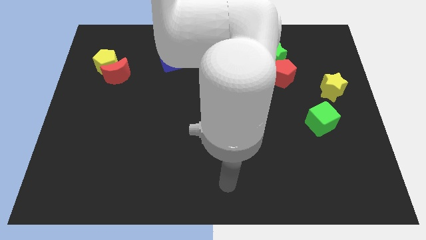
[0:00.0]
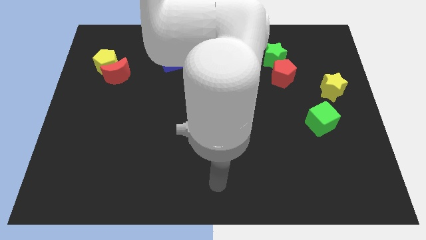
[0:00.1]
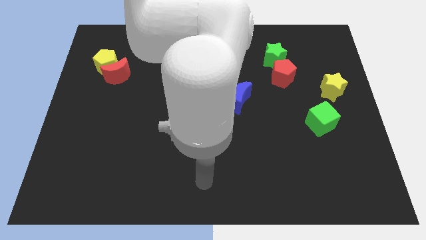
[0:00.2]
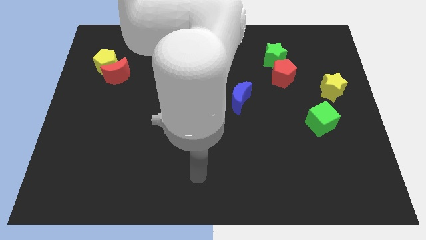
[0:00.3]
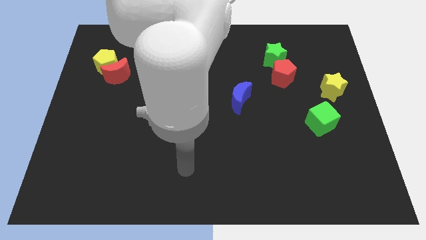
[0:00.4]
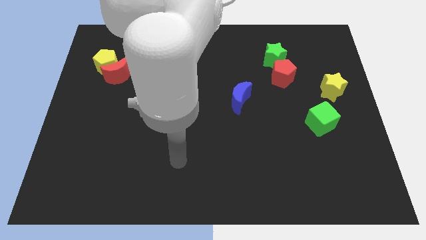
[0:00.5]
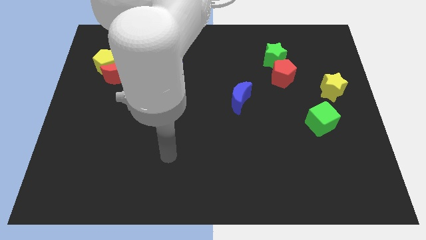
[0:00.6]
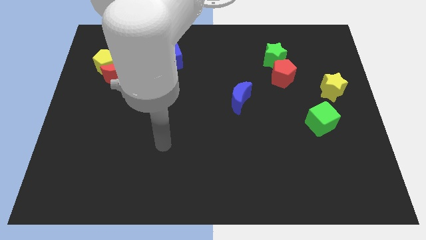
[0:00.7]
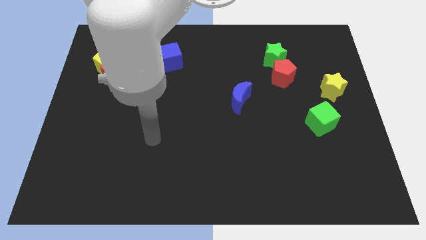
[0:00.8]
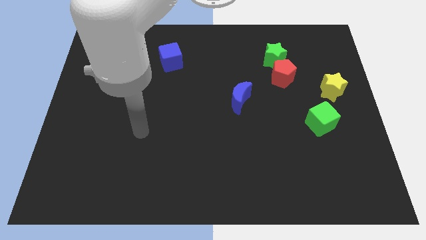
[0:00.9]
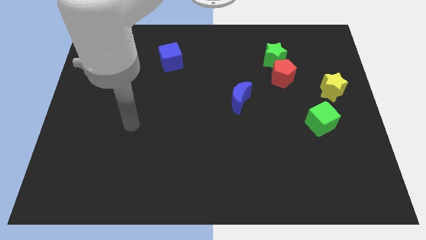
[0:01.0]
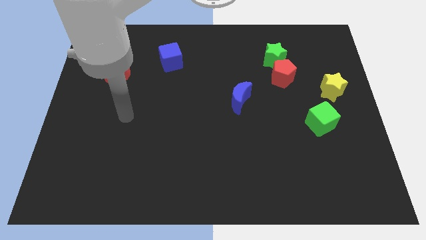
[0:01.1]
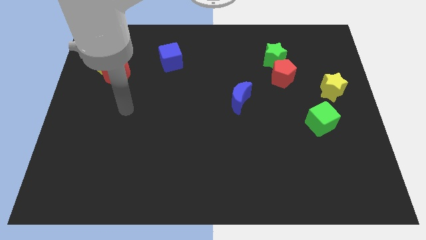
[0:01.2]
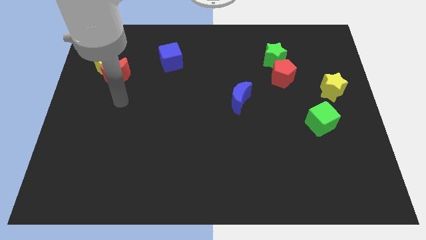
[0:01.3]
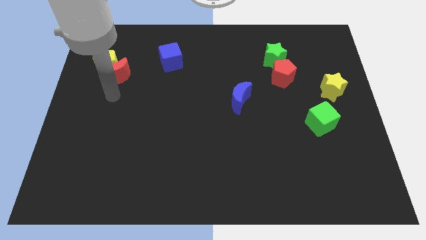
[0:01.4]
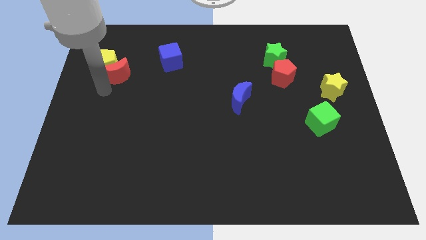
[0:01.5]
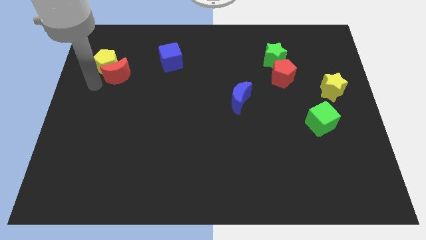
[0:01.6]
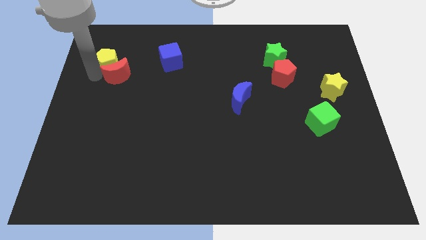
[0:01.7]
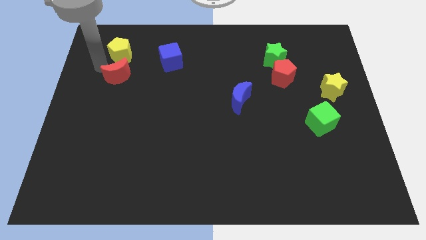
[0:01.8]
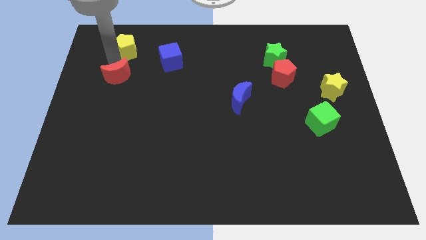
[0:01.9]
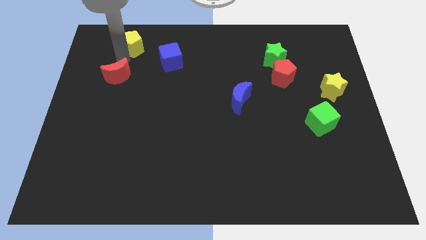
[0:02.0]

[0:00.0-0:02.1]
separate the red moon from the yellow pentagon

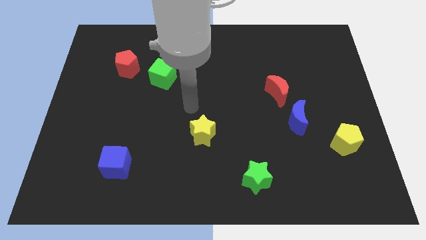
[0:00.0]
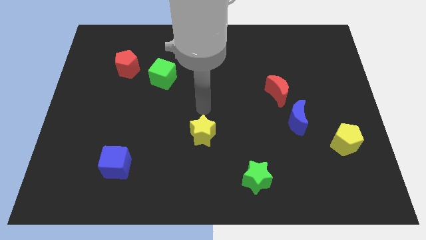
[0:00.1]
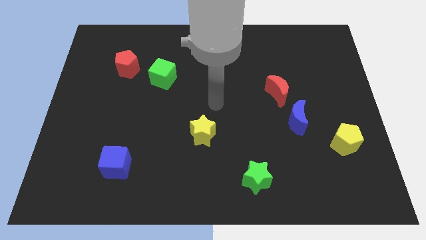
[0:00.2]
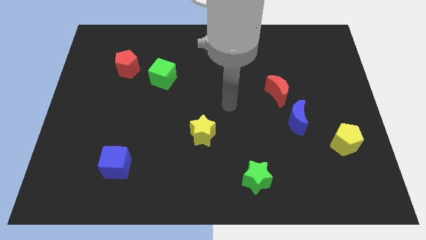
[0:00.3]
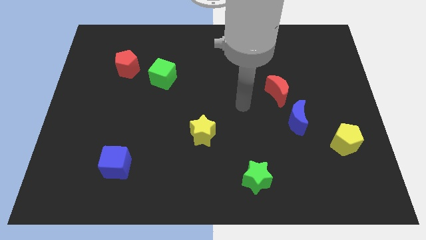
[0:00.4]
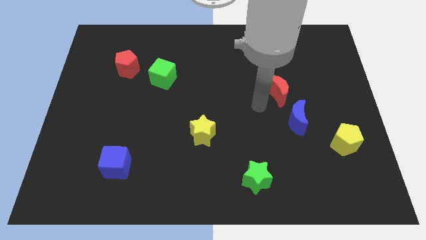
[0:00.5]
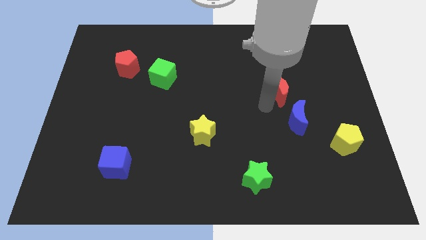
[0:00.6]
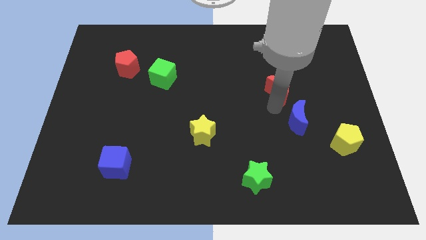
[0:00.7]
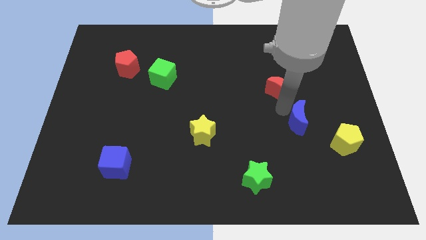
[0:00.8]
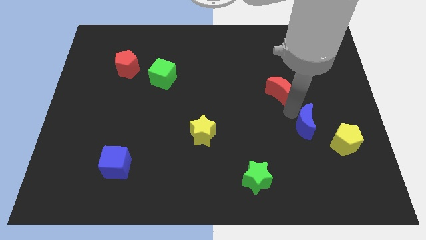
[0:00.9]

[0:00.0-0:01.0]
separate the red moon from the blue moon

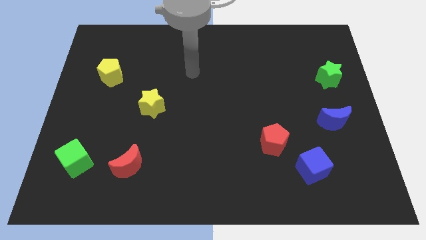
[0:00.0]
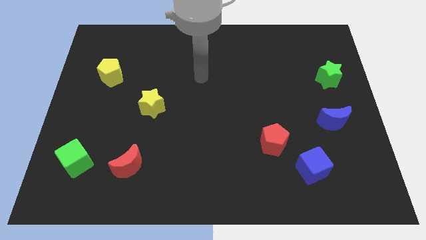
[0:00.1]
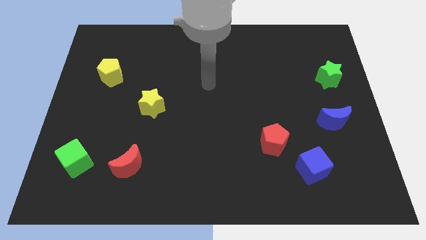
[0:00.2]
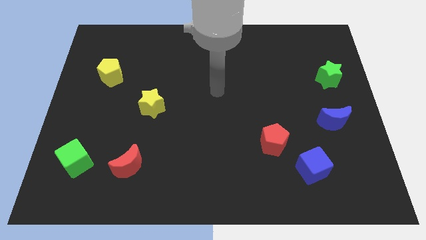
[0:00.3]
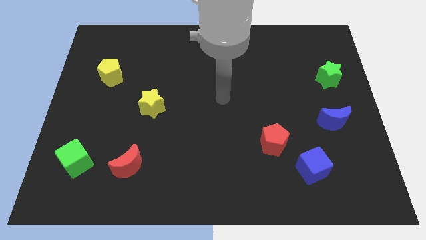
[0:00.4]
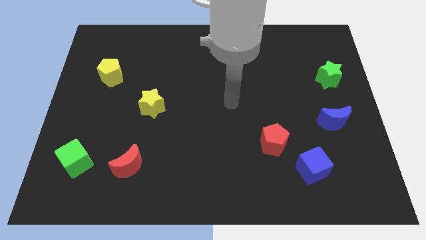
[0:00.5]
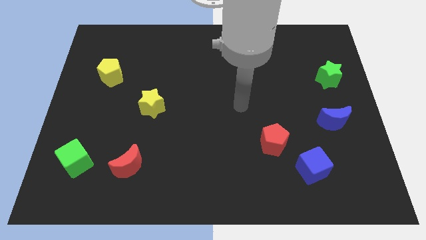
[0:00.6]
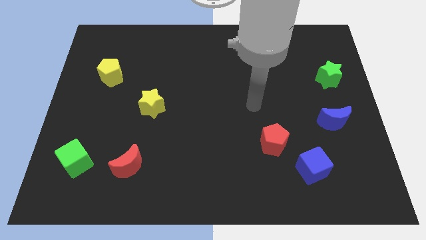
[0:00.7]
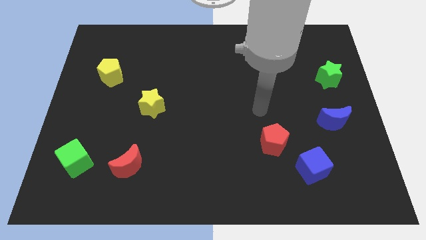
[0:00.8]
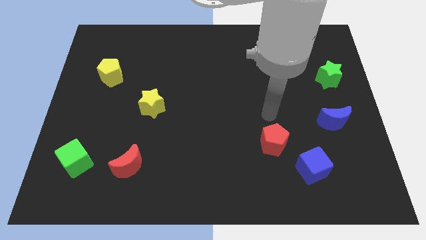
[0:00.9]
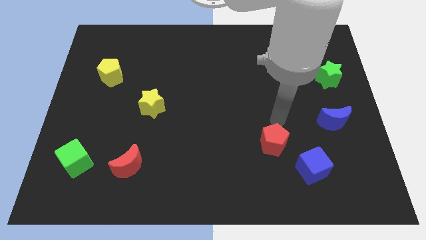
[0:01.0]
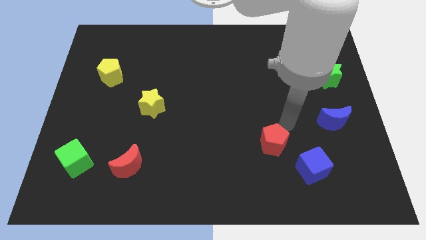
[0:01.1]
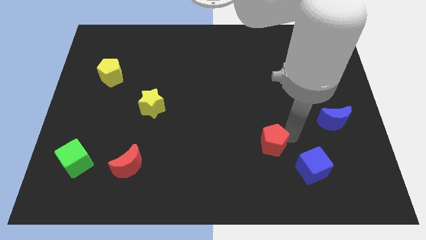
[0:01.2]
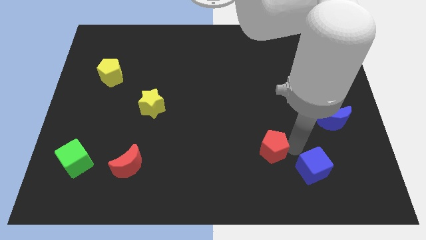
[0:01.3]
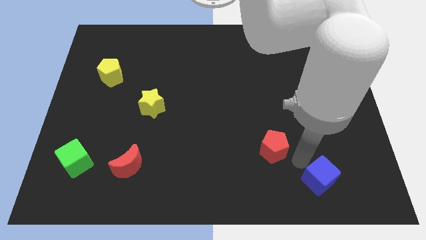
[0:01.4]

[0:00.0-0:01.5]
move the red pentagon away from the blue cube

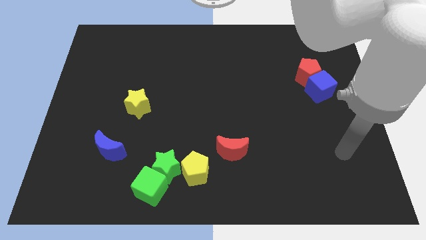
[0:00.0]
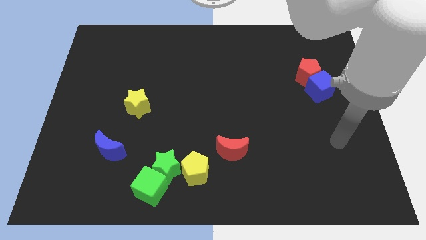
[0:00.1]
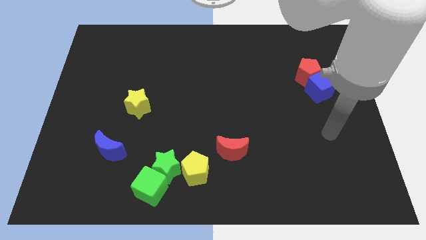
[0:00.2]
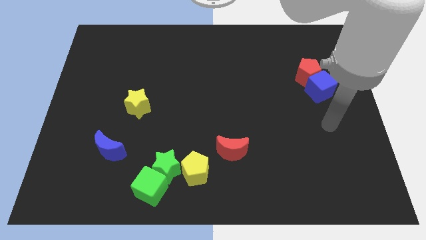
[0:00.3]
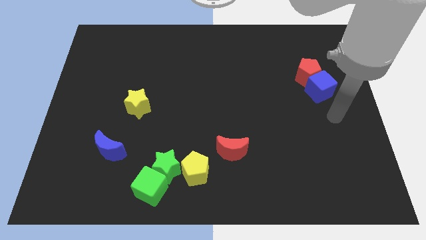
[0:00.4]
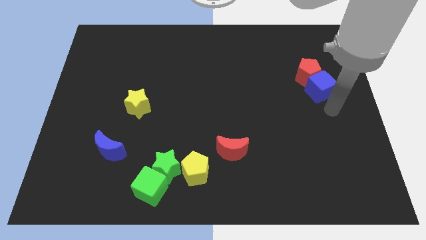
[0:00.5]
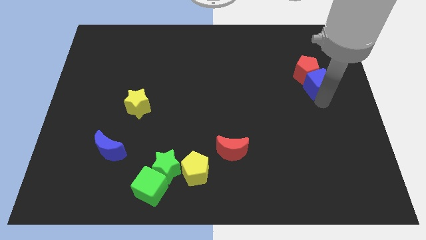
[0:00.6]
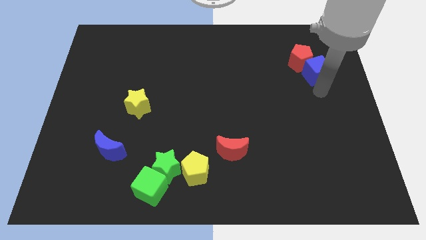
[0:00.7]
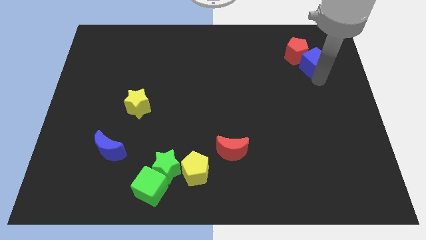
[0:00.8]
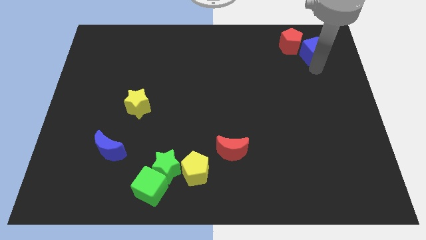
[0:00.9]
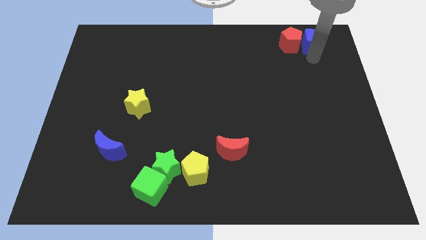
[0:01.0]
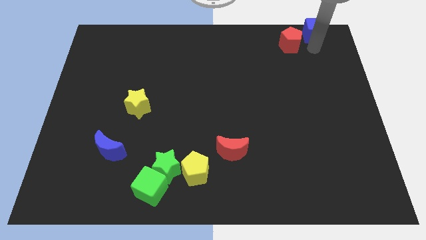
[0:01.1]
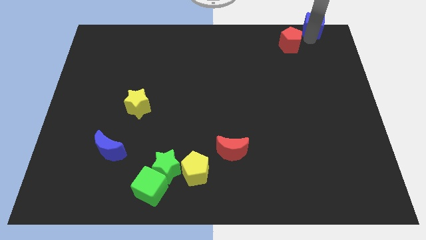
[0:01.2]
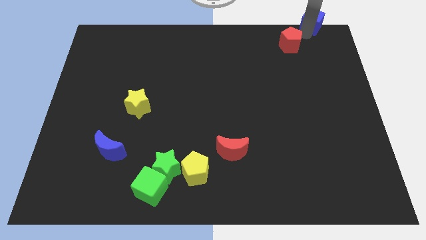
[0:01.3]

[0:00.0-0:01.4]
pull the red pentagon apart from the blue cube

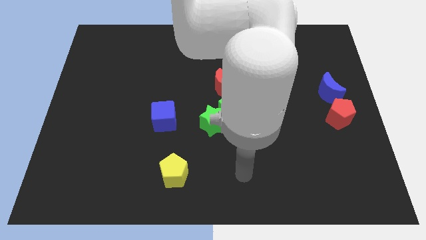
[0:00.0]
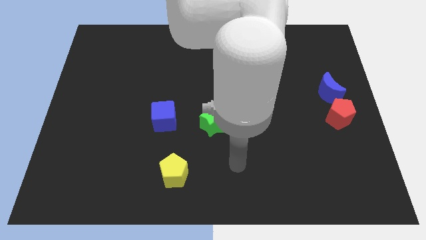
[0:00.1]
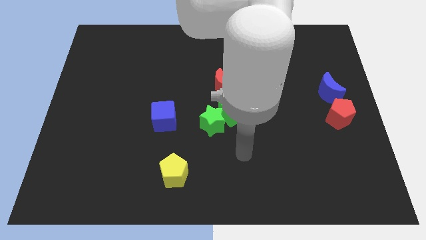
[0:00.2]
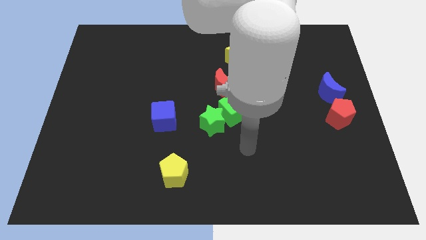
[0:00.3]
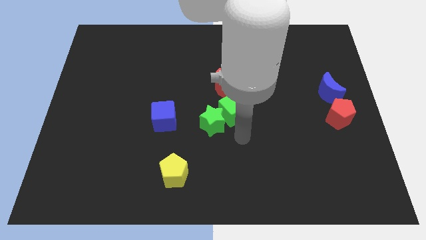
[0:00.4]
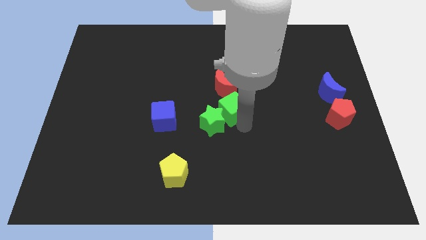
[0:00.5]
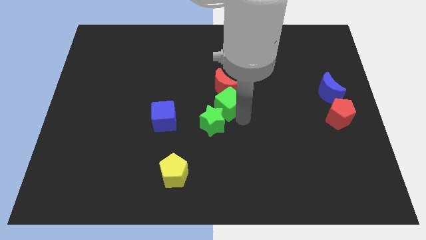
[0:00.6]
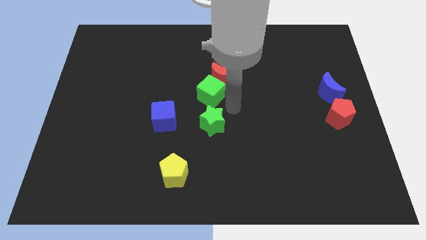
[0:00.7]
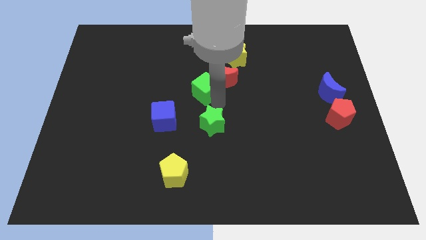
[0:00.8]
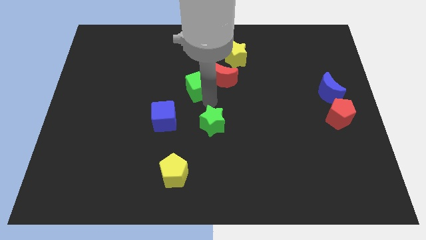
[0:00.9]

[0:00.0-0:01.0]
separate the green star from the green cube

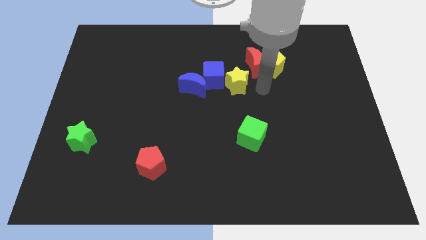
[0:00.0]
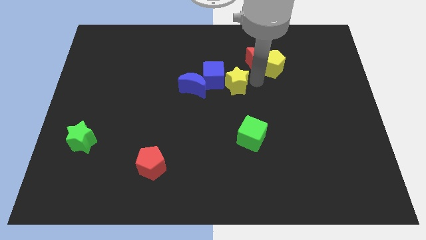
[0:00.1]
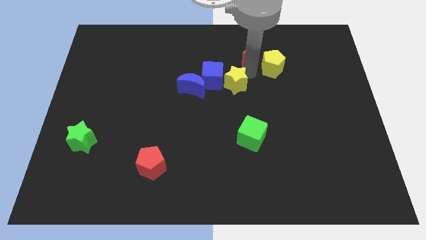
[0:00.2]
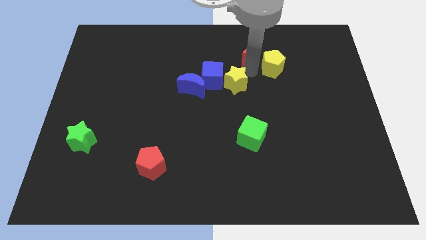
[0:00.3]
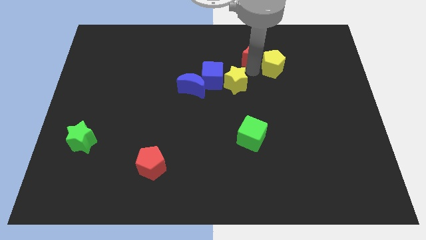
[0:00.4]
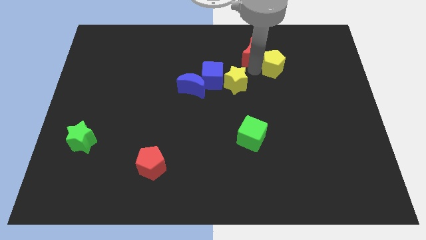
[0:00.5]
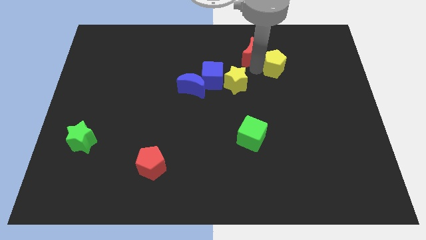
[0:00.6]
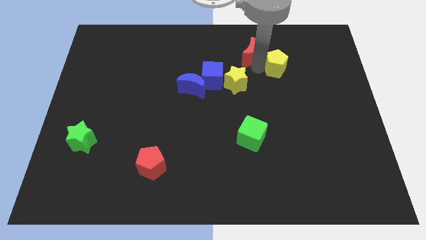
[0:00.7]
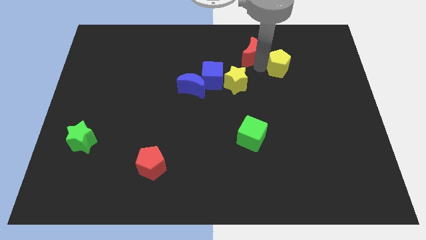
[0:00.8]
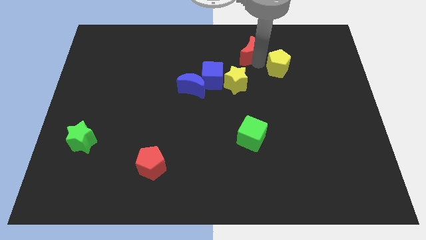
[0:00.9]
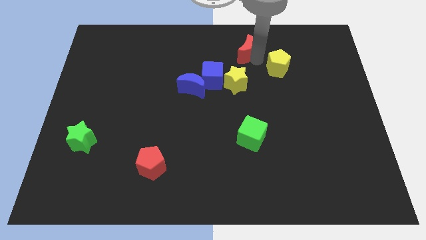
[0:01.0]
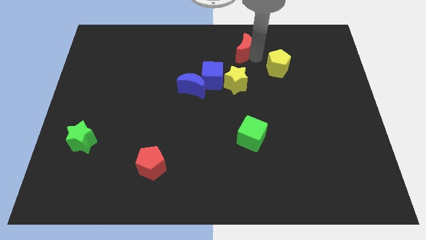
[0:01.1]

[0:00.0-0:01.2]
pull the yellow pentagon apart from the red moon

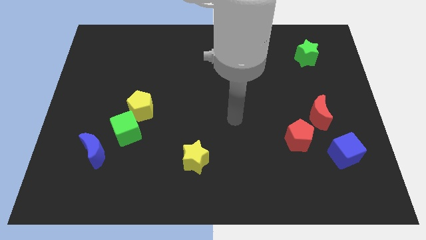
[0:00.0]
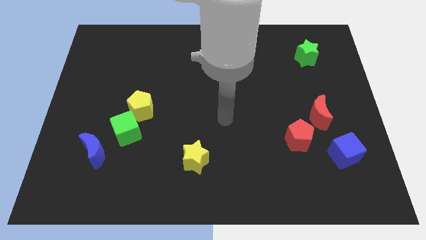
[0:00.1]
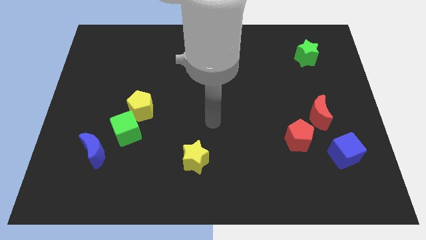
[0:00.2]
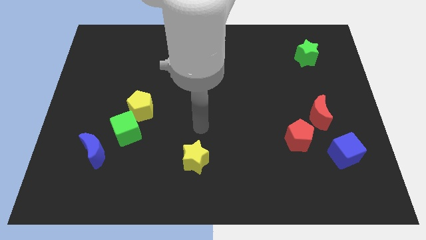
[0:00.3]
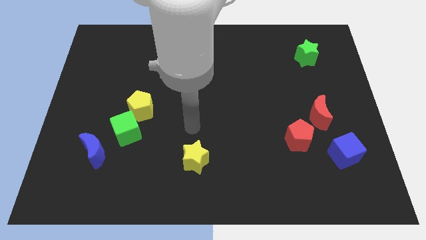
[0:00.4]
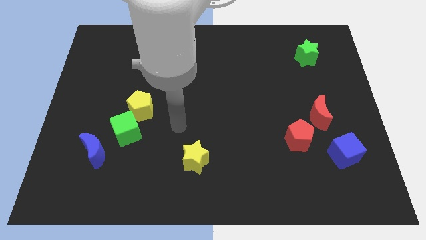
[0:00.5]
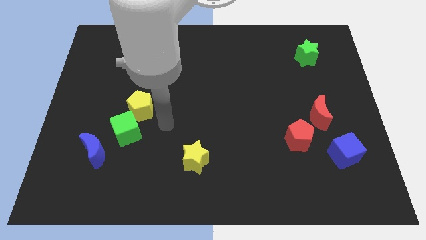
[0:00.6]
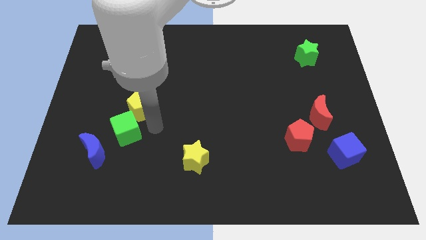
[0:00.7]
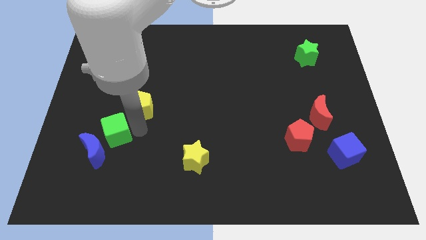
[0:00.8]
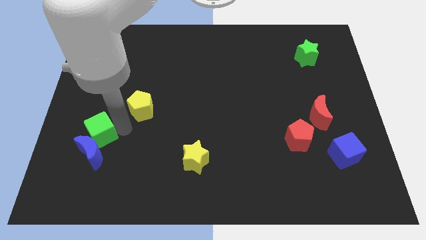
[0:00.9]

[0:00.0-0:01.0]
pull the yellow pentagon apart from the green cube

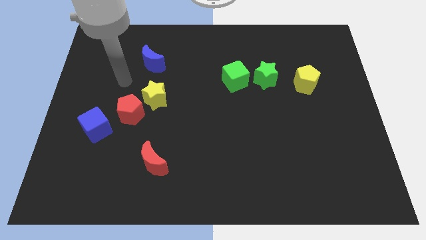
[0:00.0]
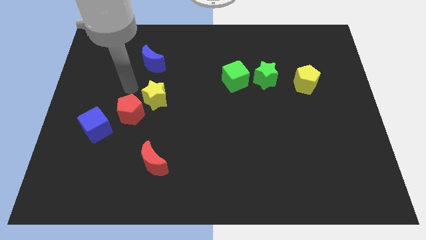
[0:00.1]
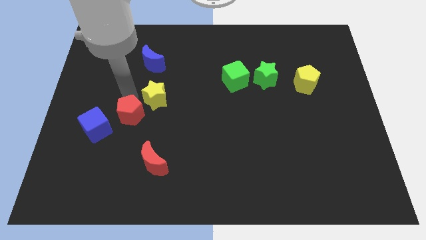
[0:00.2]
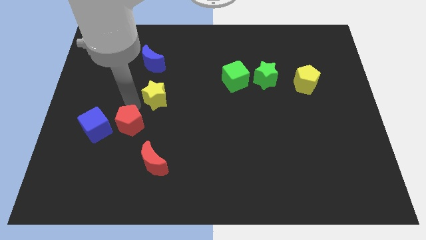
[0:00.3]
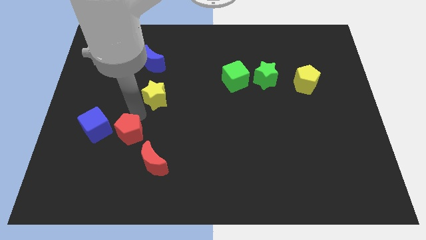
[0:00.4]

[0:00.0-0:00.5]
pull the yellow star apart from the red pentagon
